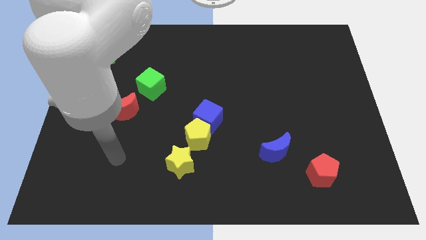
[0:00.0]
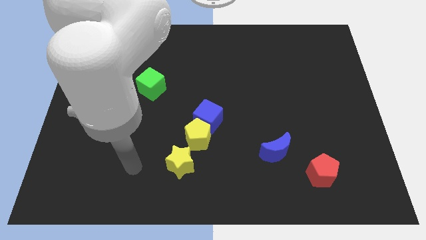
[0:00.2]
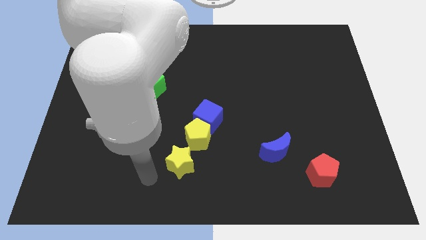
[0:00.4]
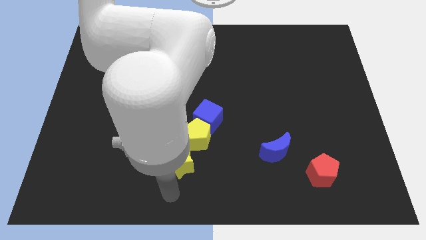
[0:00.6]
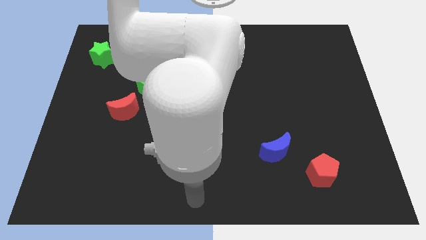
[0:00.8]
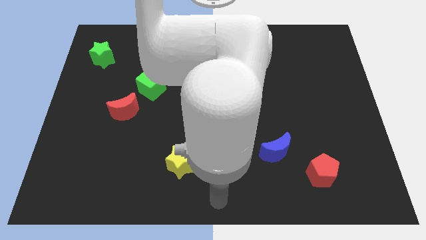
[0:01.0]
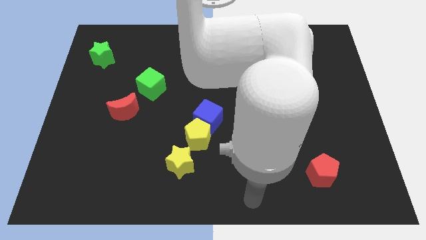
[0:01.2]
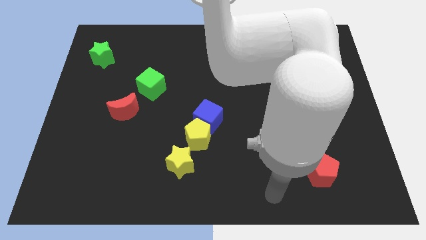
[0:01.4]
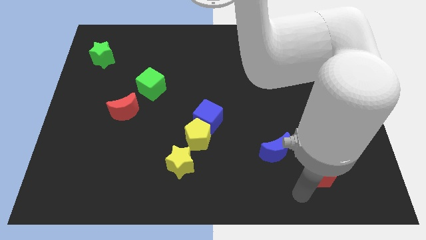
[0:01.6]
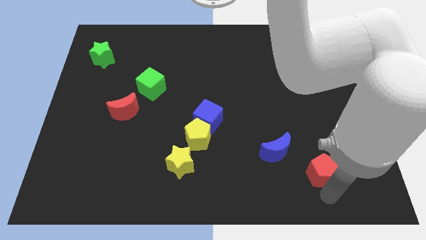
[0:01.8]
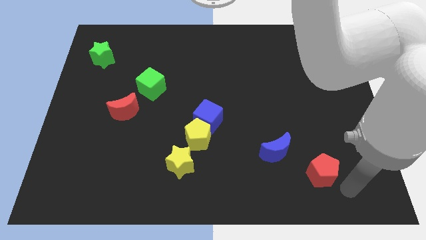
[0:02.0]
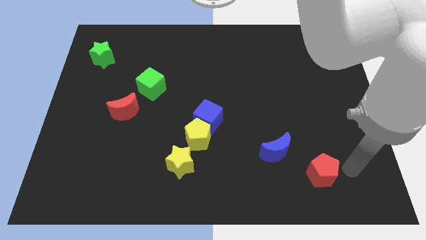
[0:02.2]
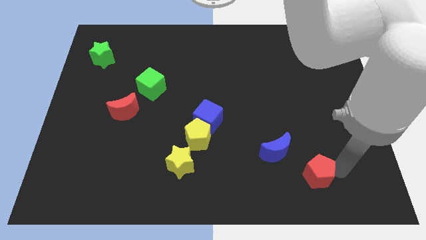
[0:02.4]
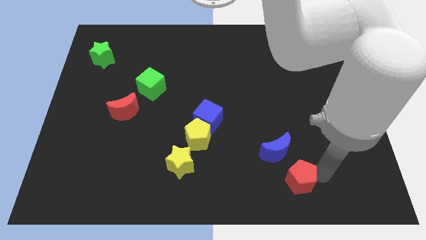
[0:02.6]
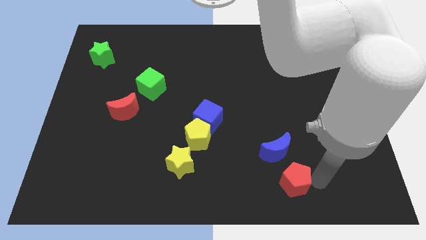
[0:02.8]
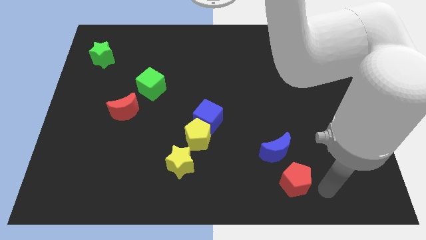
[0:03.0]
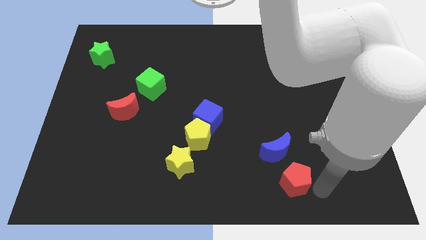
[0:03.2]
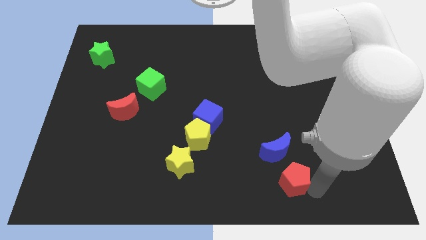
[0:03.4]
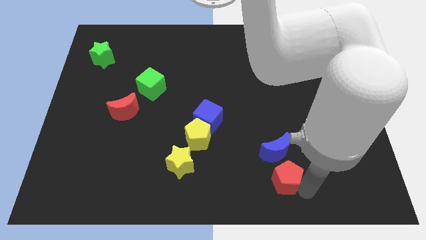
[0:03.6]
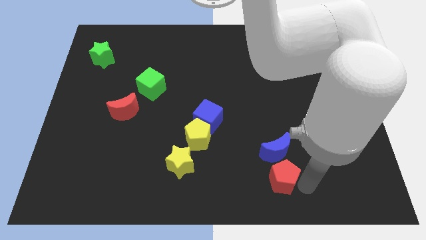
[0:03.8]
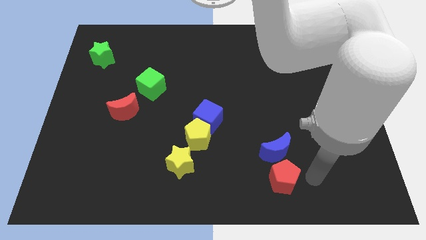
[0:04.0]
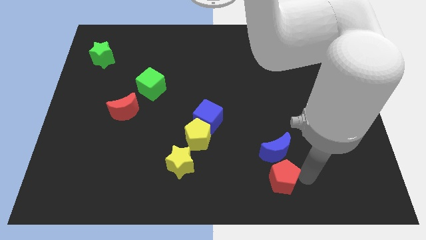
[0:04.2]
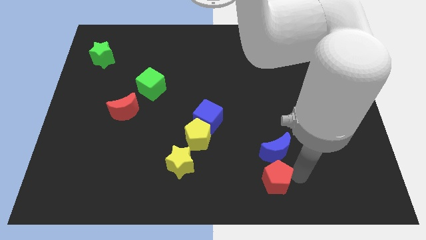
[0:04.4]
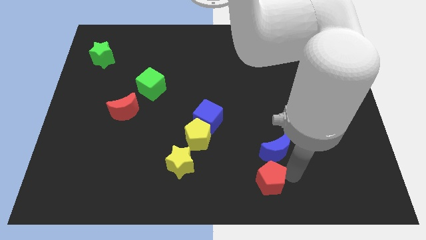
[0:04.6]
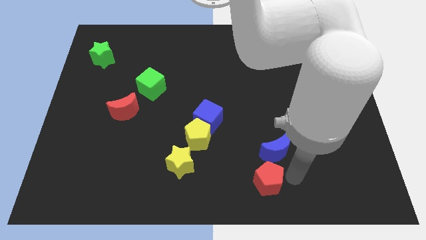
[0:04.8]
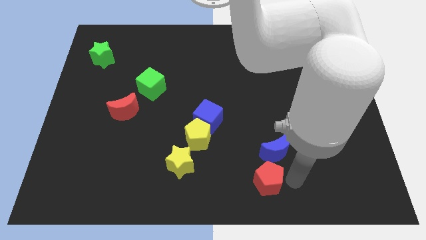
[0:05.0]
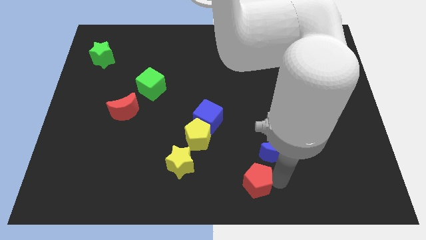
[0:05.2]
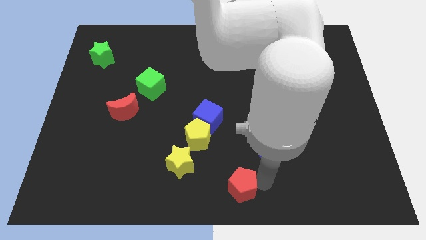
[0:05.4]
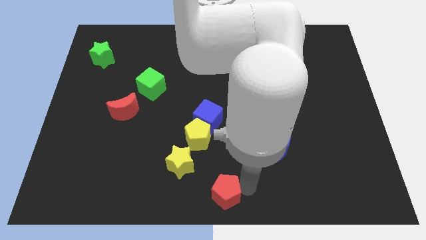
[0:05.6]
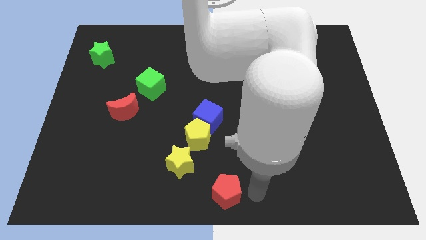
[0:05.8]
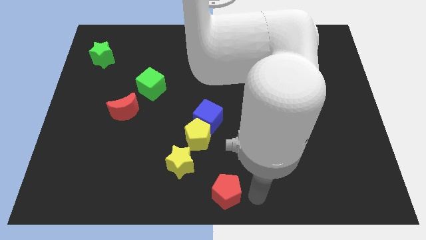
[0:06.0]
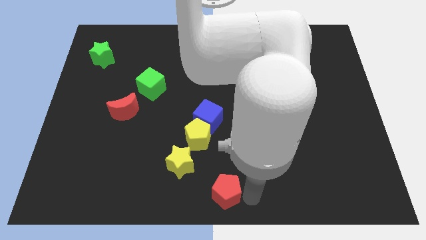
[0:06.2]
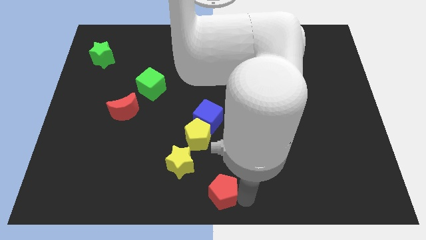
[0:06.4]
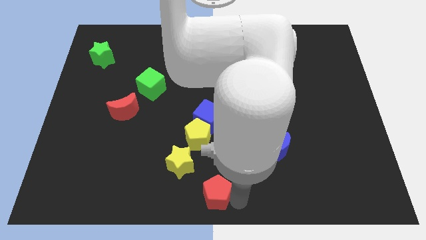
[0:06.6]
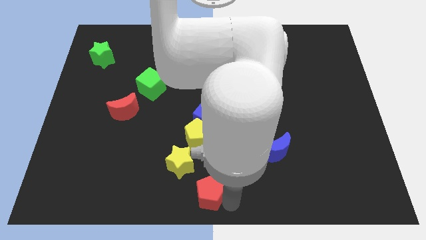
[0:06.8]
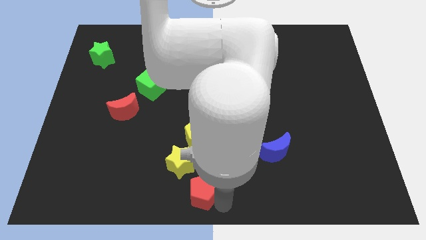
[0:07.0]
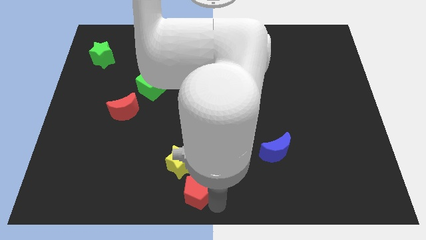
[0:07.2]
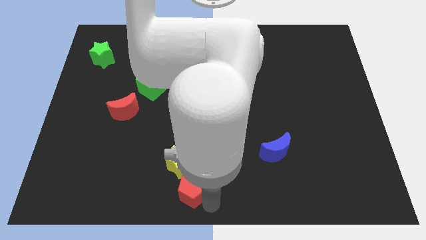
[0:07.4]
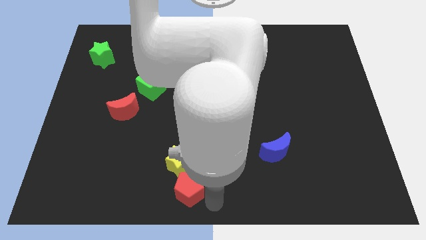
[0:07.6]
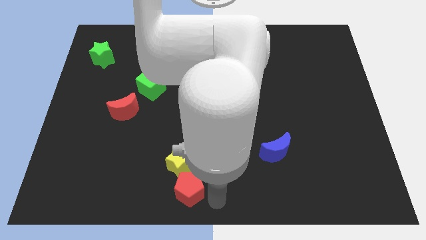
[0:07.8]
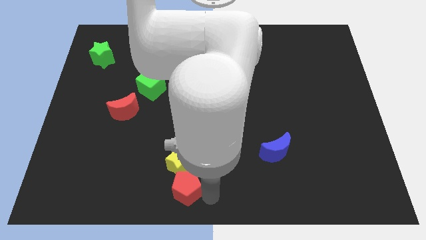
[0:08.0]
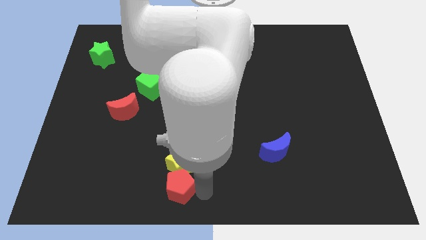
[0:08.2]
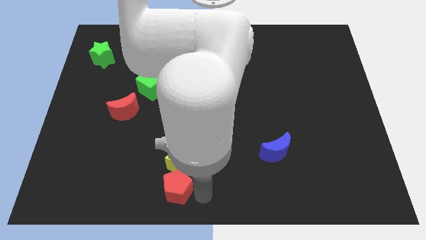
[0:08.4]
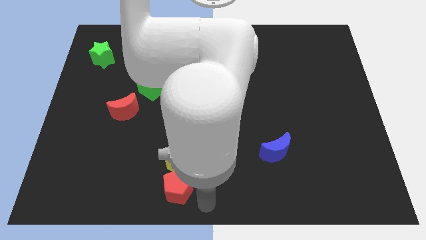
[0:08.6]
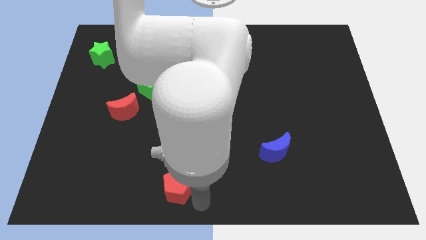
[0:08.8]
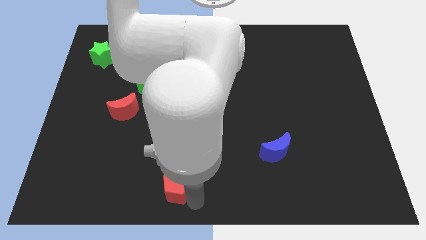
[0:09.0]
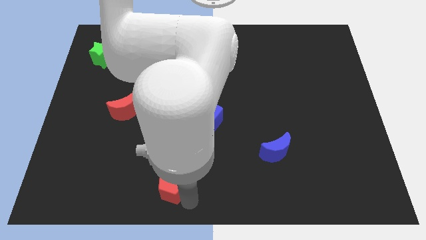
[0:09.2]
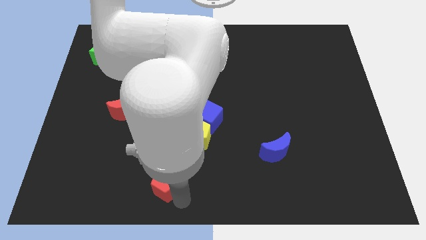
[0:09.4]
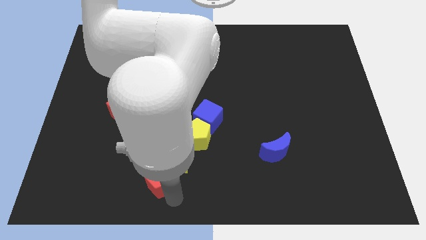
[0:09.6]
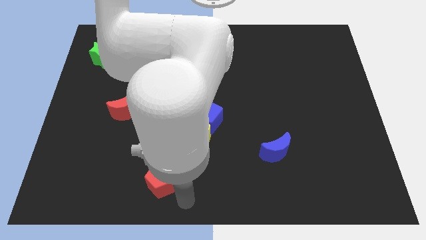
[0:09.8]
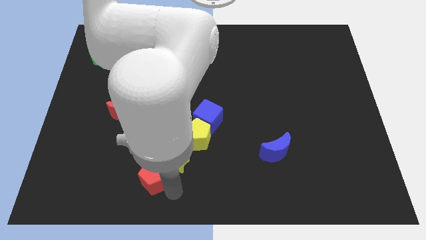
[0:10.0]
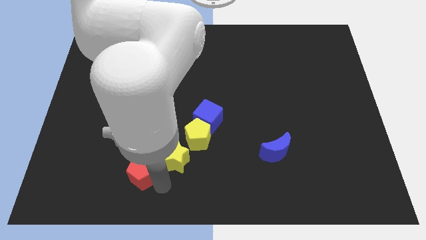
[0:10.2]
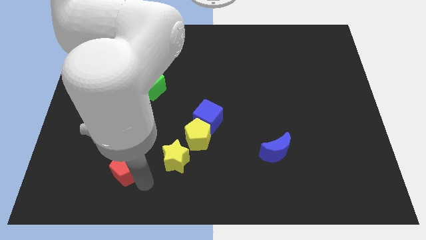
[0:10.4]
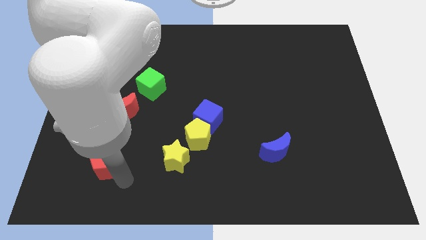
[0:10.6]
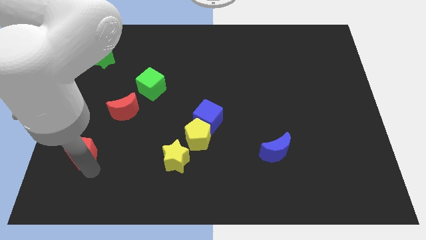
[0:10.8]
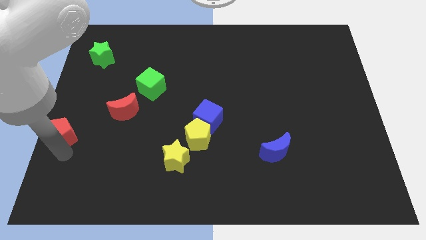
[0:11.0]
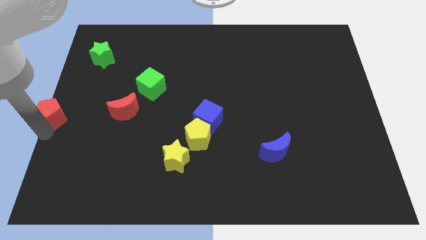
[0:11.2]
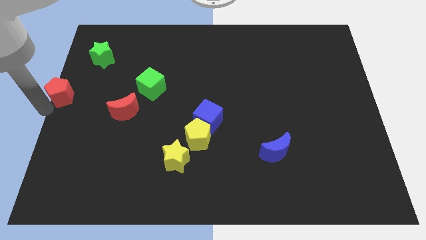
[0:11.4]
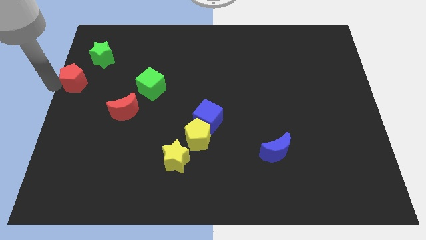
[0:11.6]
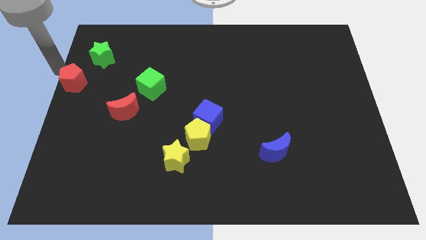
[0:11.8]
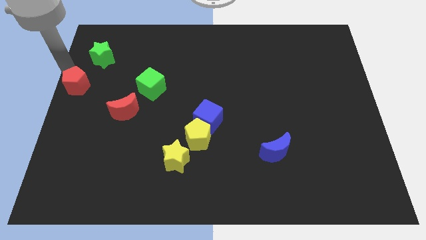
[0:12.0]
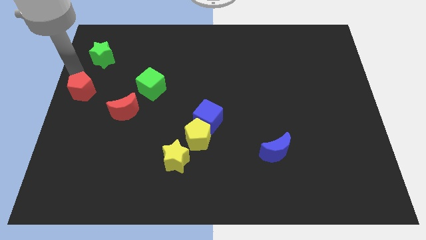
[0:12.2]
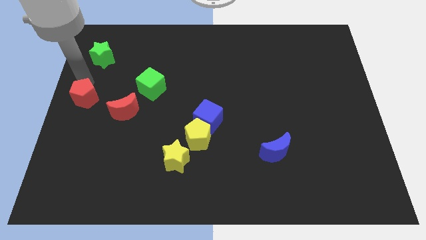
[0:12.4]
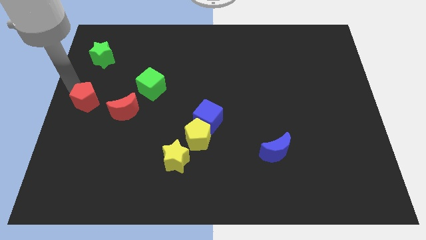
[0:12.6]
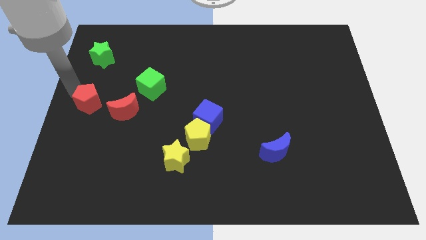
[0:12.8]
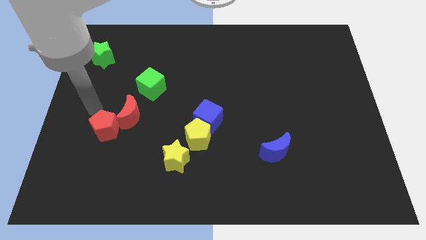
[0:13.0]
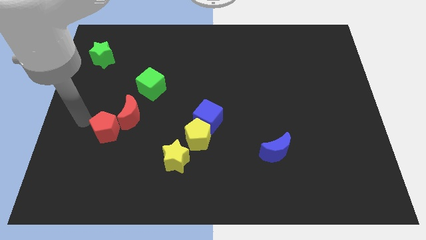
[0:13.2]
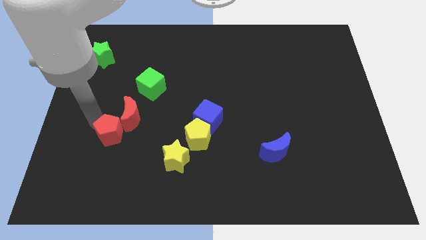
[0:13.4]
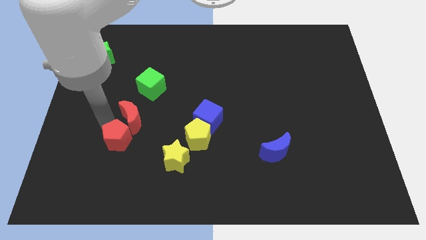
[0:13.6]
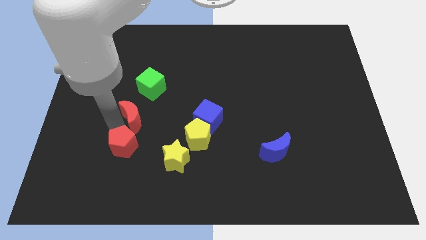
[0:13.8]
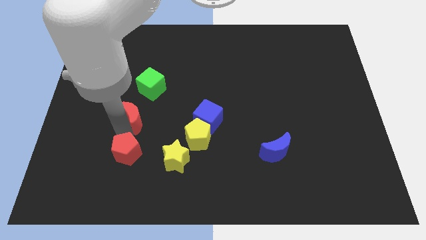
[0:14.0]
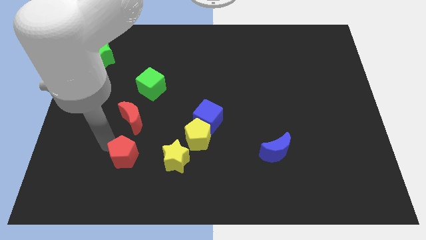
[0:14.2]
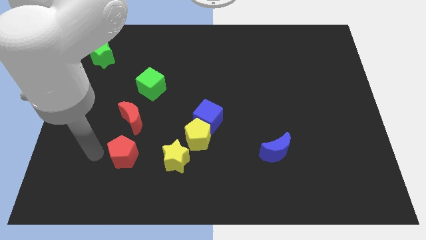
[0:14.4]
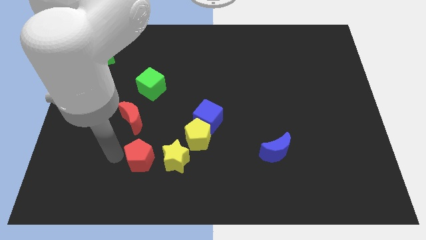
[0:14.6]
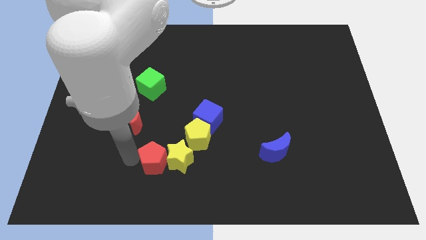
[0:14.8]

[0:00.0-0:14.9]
push the red pentagon to the bottom left of the yellow pentagon
